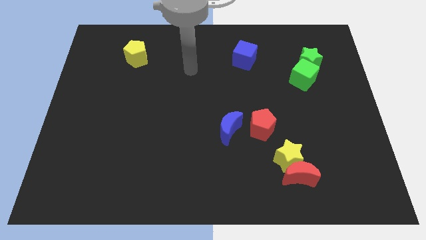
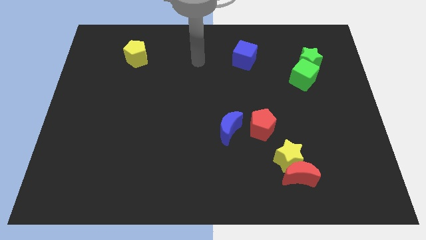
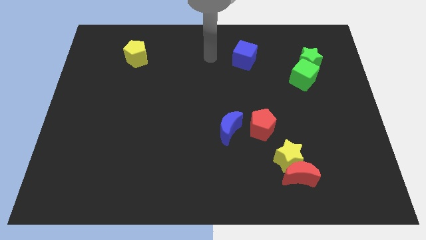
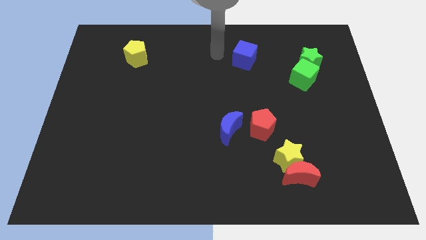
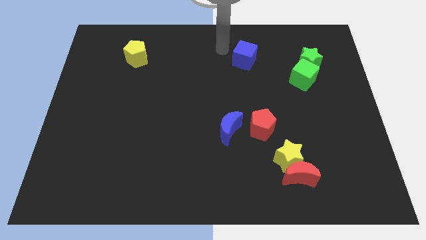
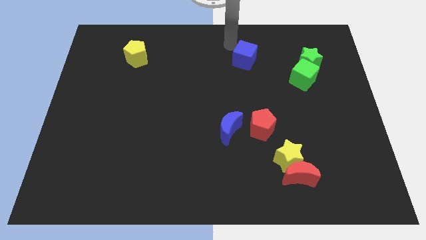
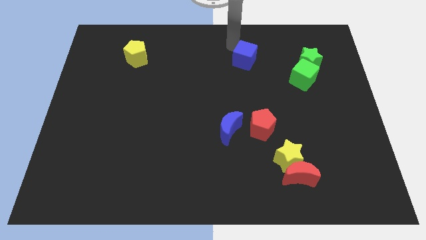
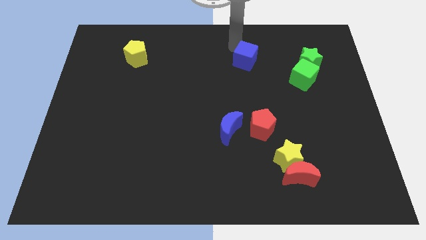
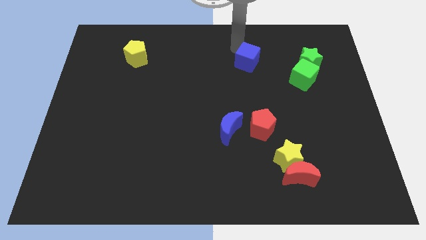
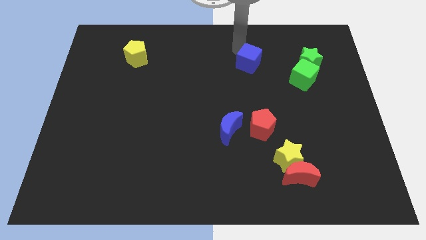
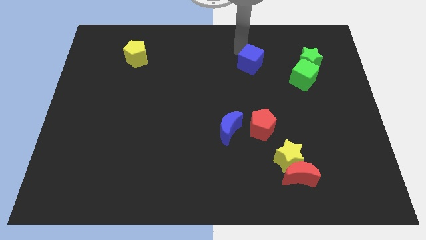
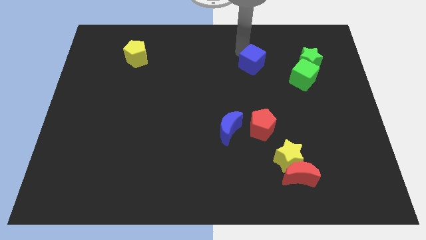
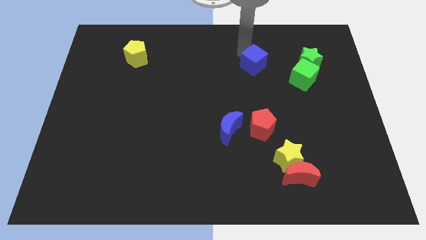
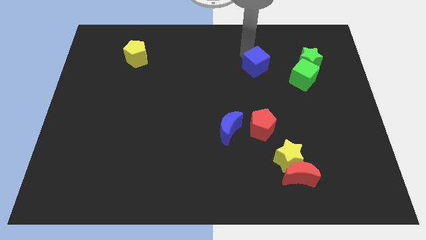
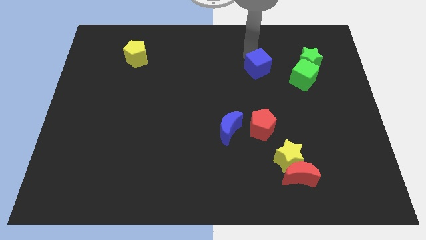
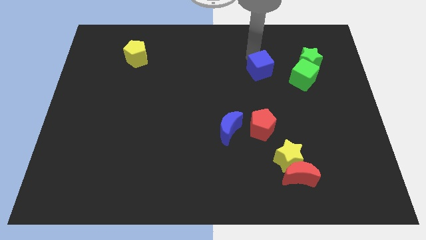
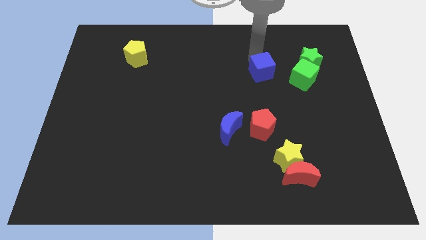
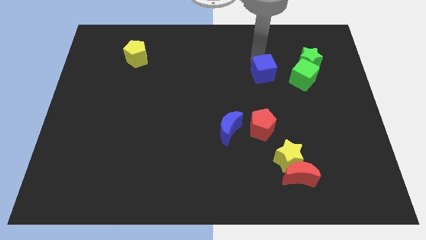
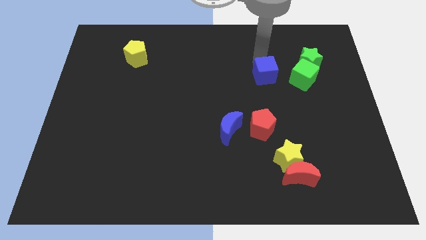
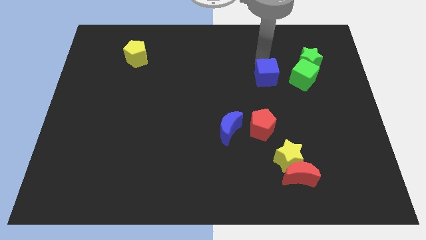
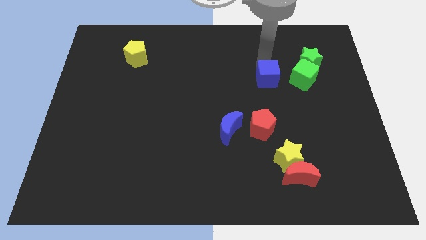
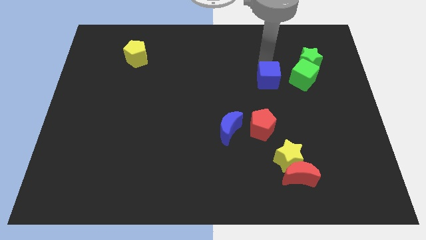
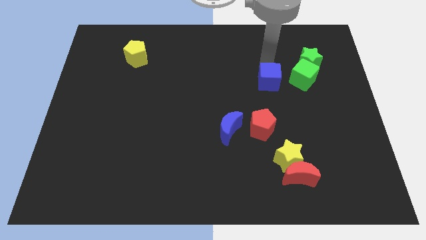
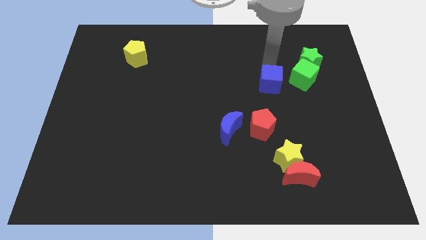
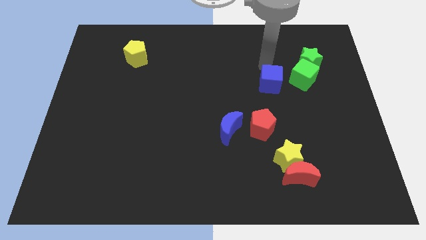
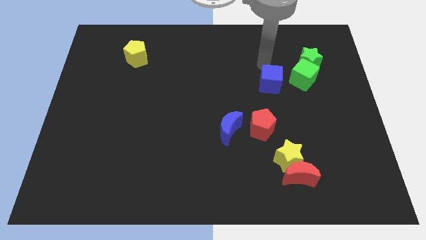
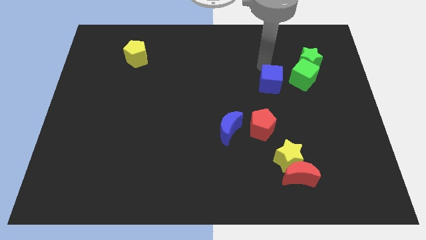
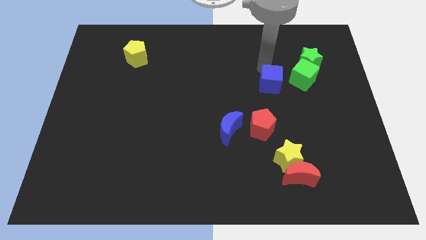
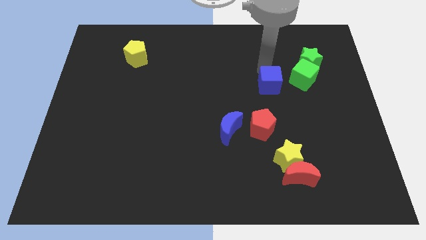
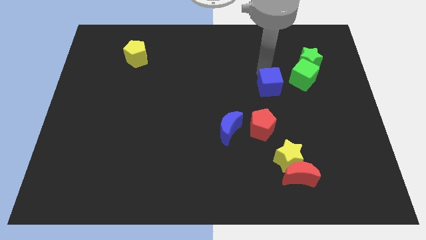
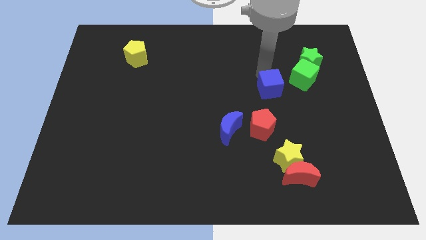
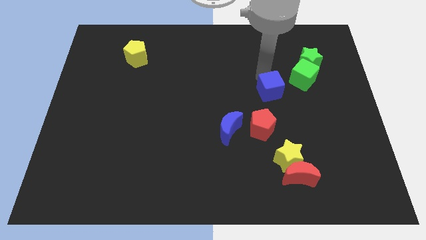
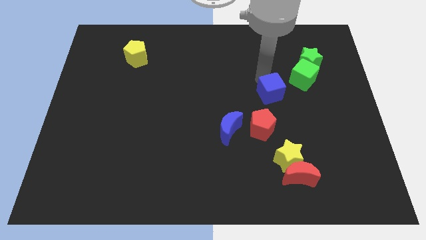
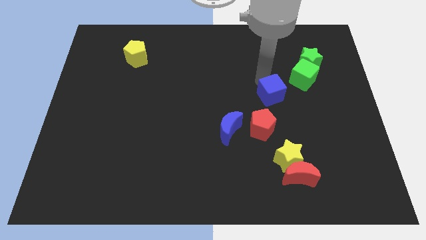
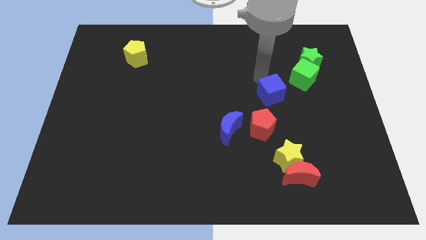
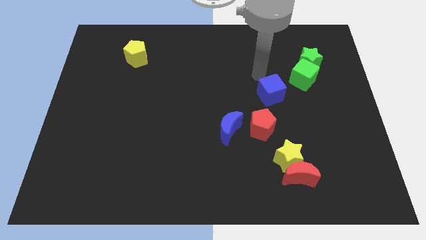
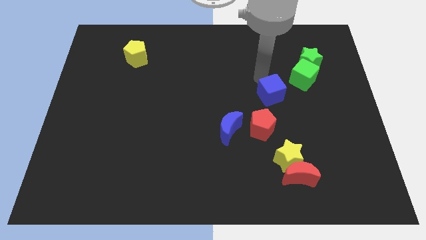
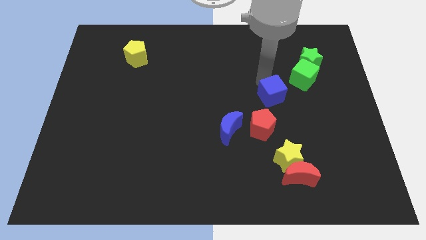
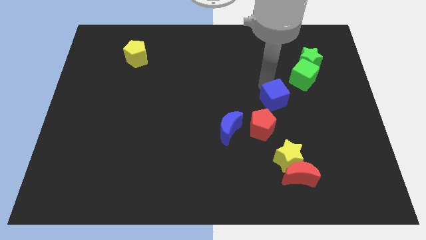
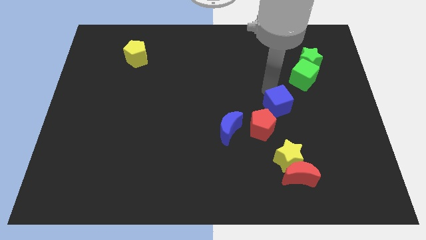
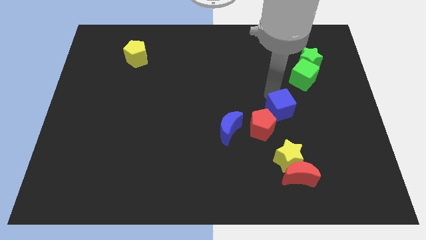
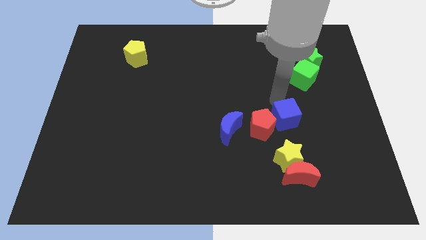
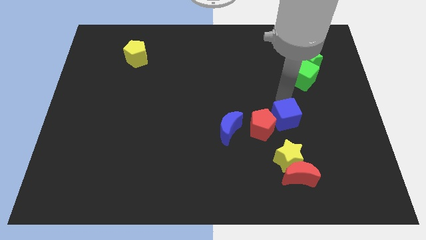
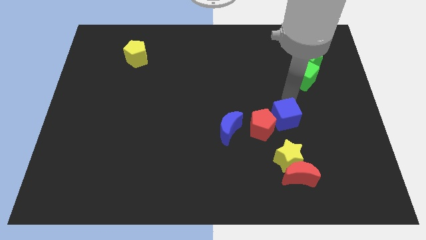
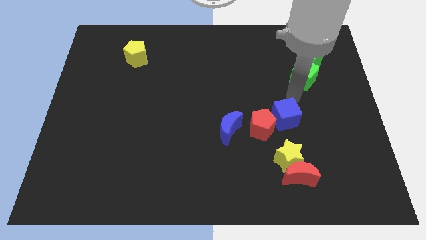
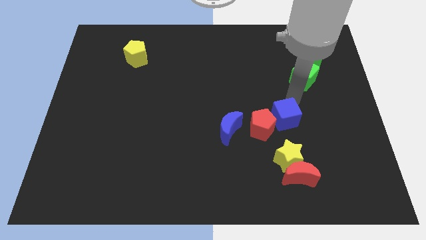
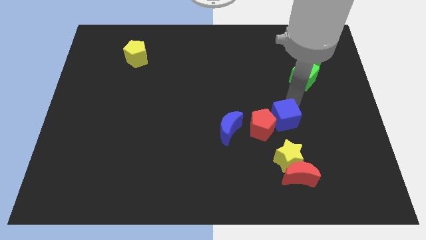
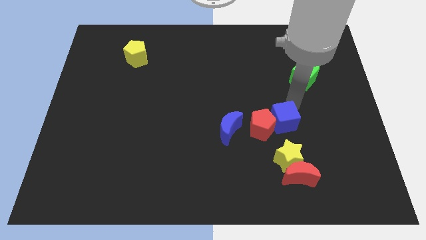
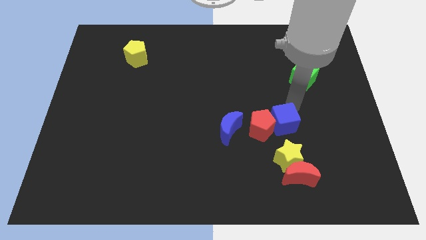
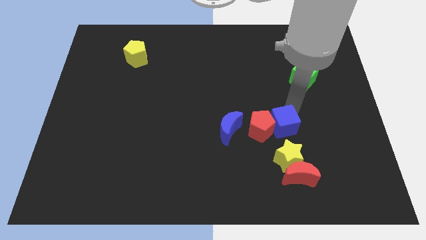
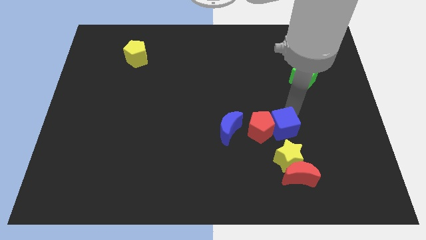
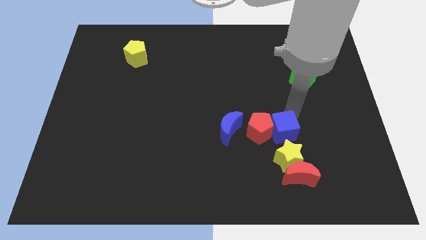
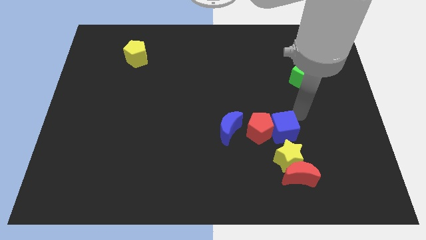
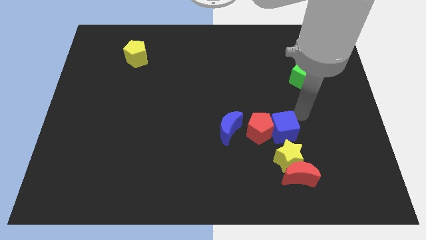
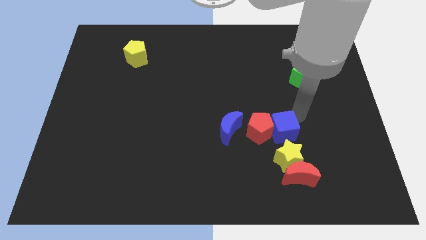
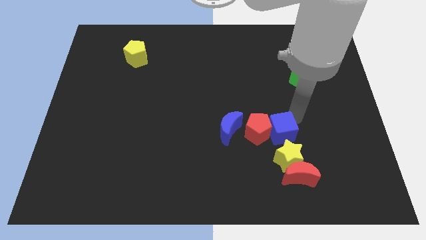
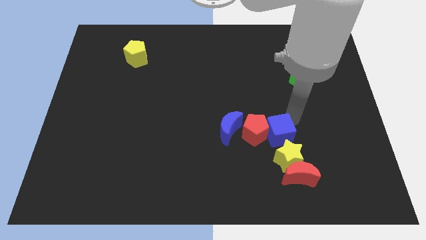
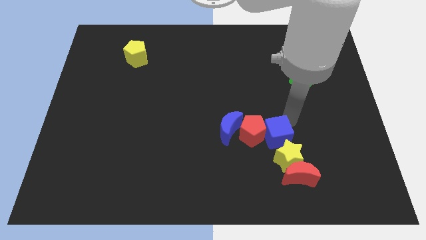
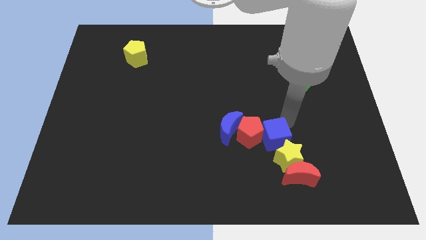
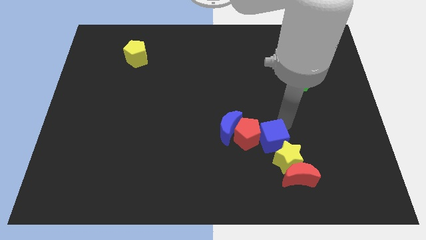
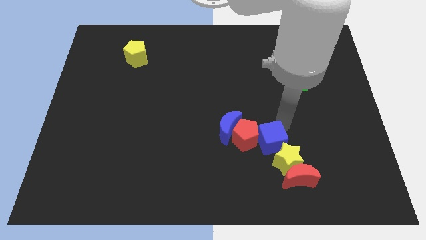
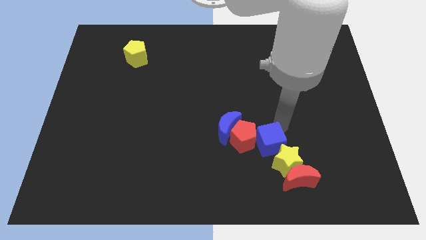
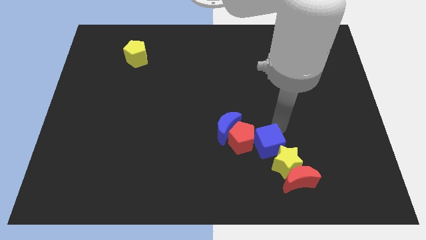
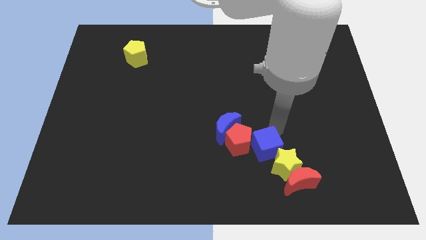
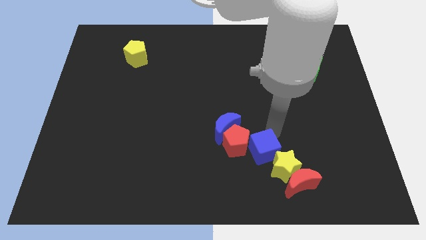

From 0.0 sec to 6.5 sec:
put the blue cube just left of the yellow star
